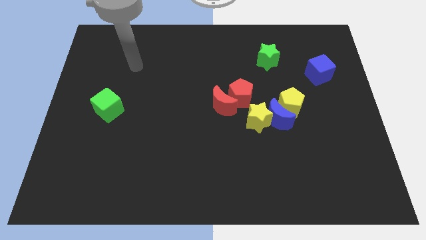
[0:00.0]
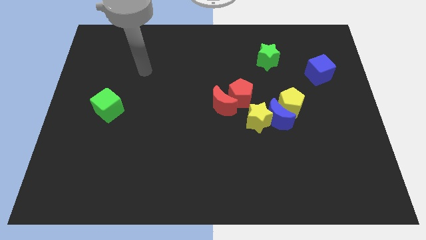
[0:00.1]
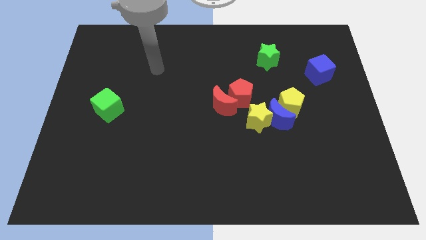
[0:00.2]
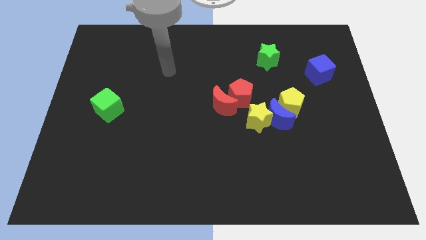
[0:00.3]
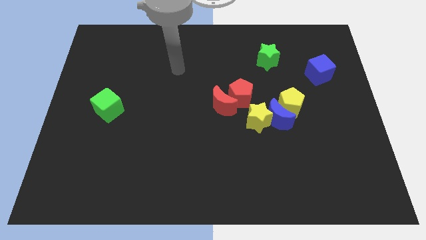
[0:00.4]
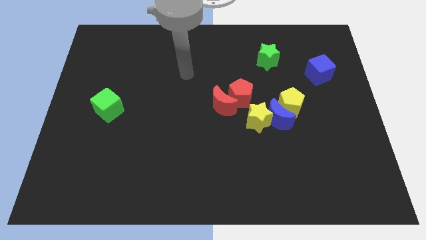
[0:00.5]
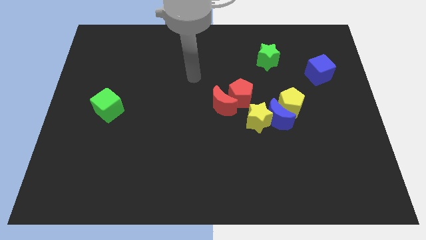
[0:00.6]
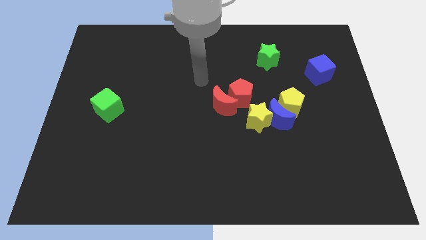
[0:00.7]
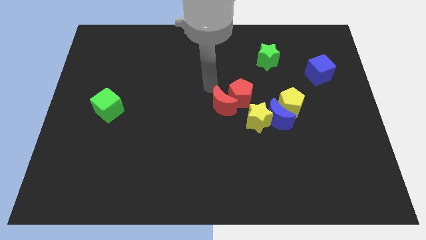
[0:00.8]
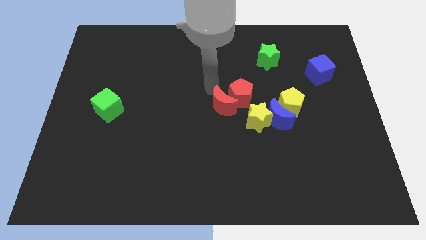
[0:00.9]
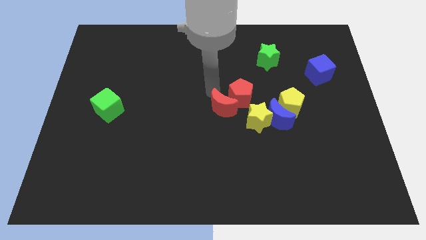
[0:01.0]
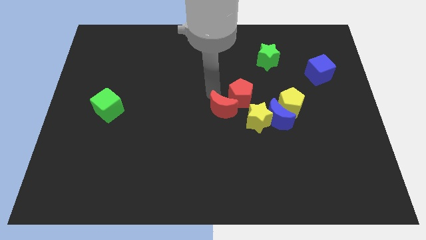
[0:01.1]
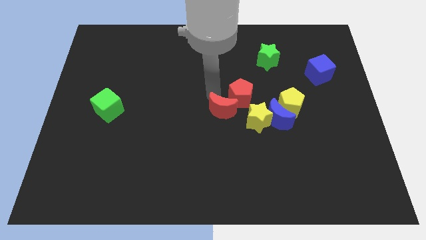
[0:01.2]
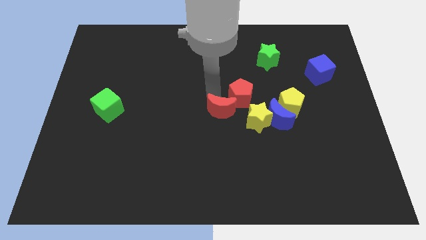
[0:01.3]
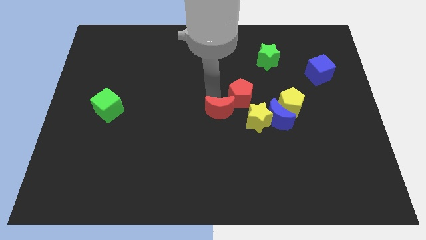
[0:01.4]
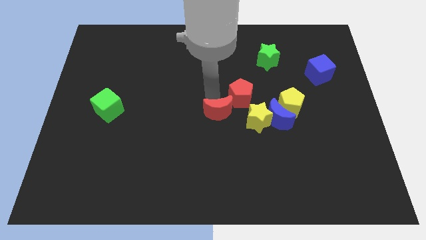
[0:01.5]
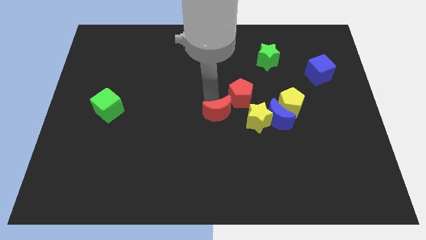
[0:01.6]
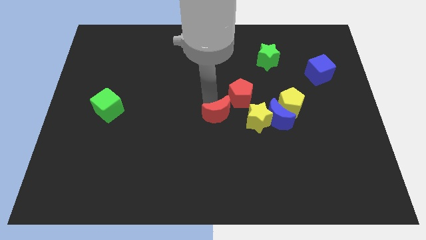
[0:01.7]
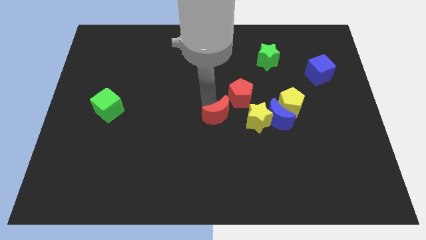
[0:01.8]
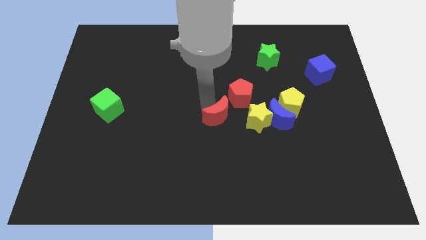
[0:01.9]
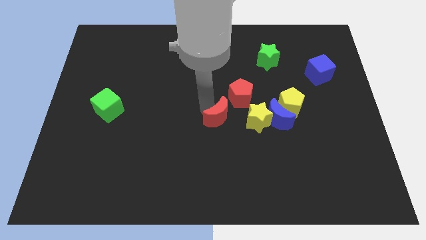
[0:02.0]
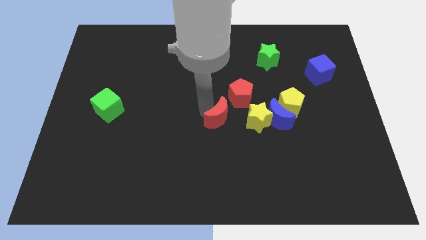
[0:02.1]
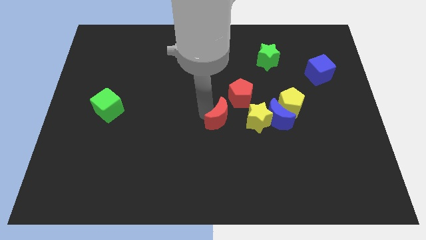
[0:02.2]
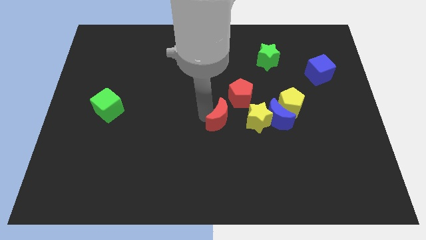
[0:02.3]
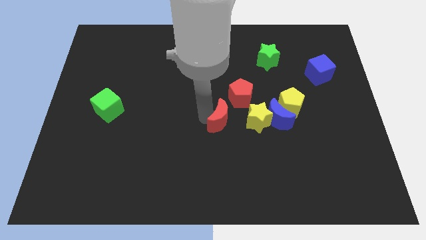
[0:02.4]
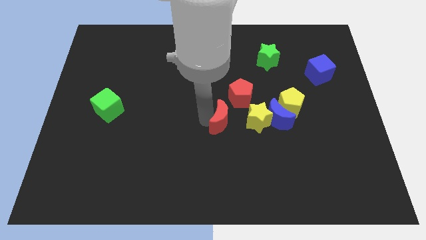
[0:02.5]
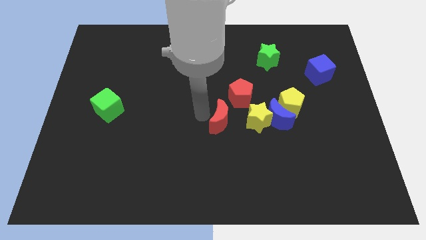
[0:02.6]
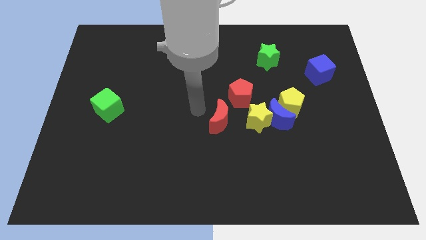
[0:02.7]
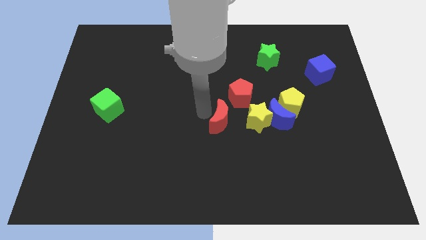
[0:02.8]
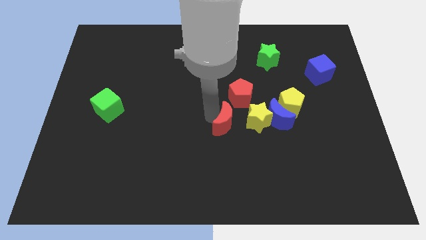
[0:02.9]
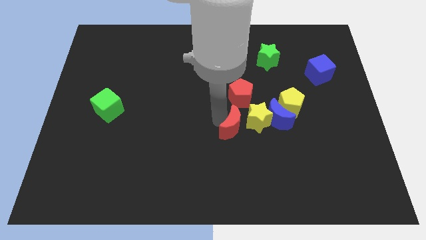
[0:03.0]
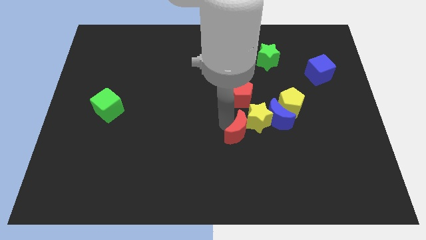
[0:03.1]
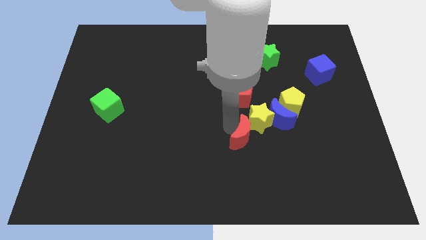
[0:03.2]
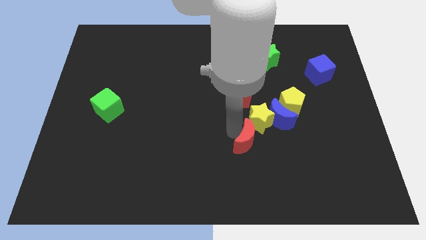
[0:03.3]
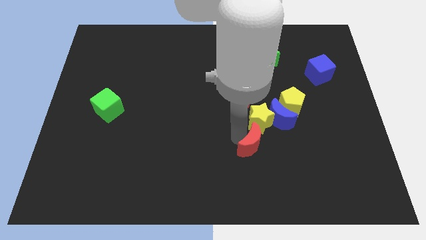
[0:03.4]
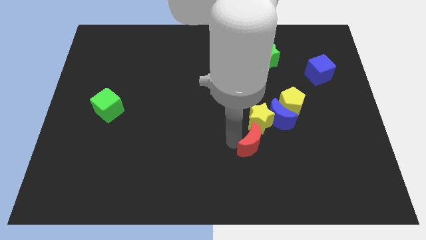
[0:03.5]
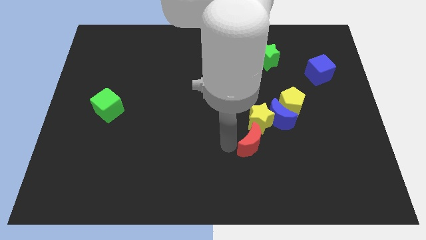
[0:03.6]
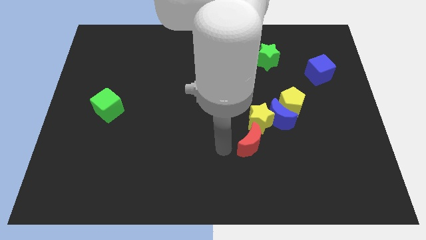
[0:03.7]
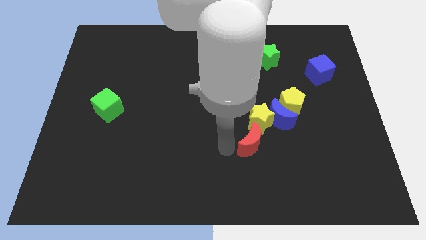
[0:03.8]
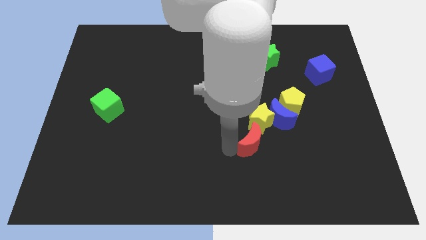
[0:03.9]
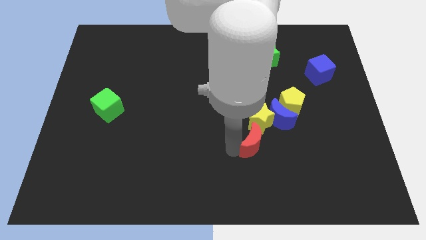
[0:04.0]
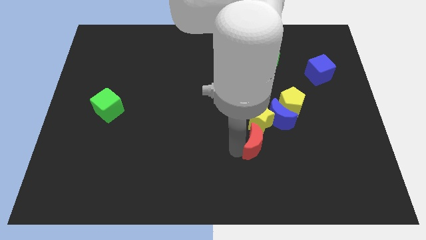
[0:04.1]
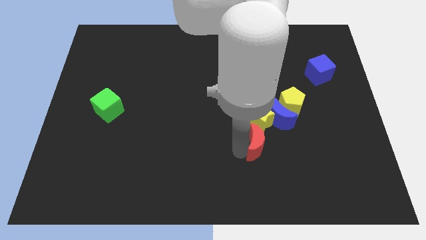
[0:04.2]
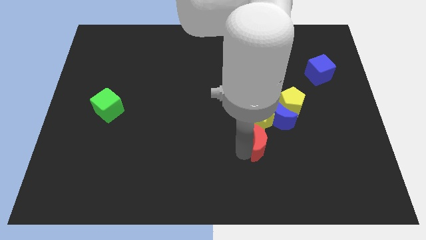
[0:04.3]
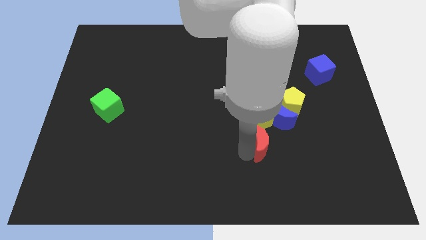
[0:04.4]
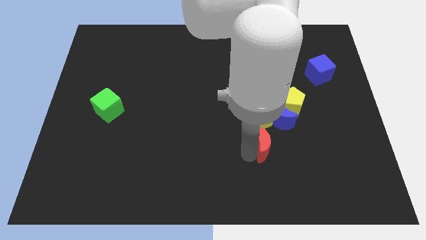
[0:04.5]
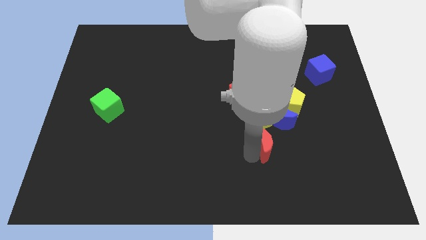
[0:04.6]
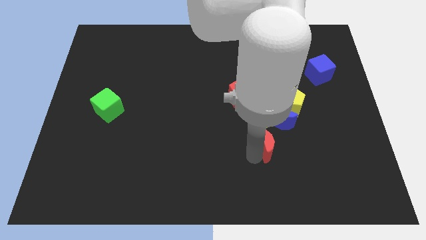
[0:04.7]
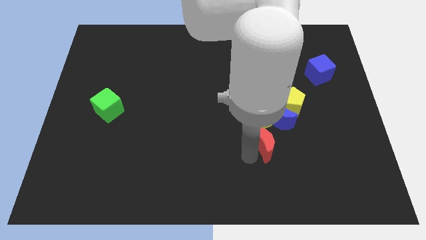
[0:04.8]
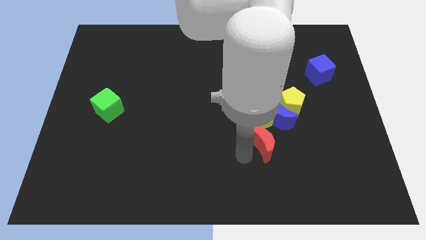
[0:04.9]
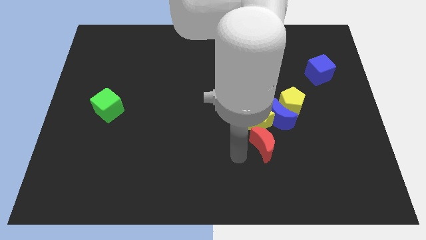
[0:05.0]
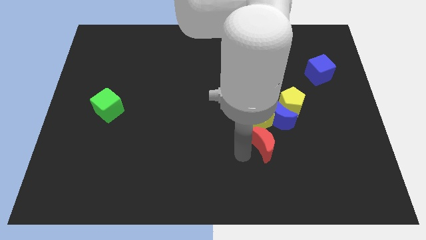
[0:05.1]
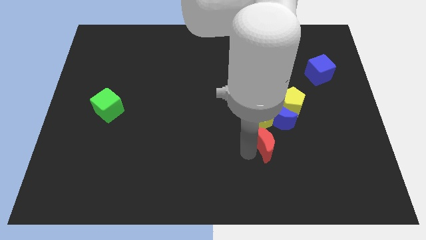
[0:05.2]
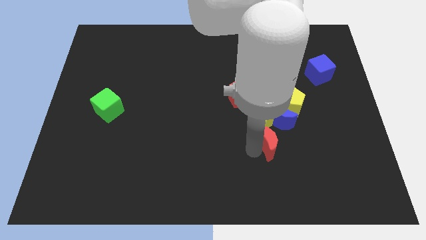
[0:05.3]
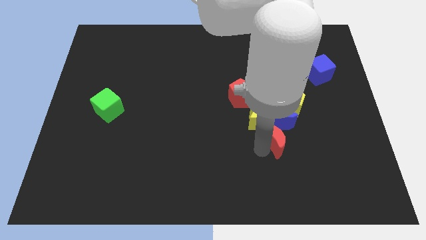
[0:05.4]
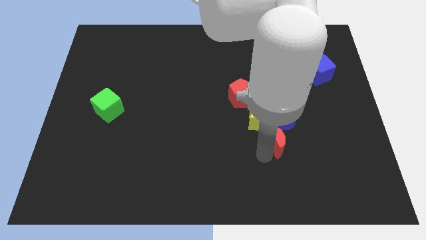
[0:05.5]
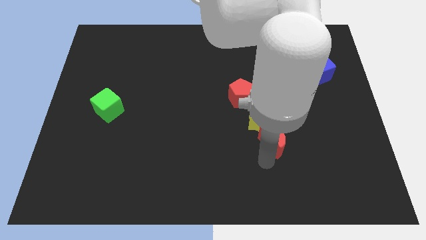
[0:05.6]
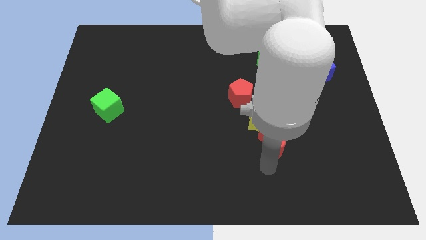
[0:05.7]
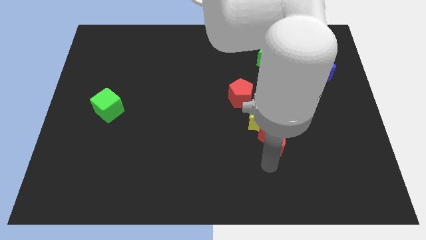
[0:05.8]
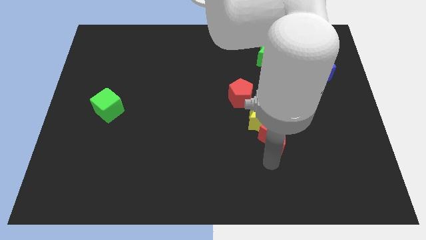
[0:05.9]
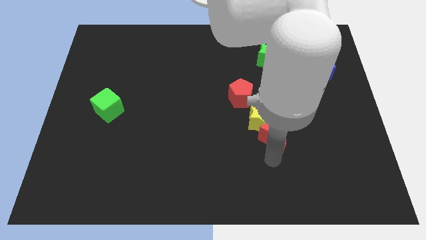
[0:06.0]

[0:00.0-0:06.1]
move the red moon towards the blue moon

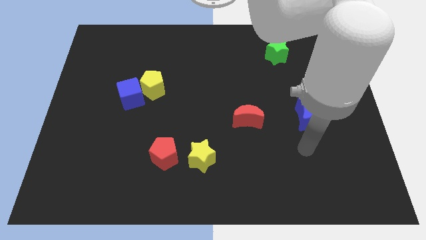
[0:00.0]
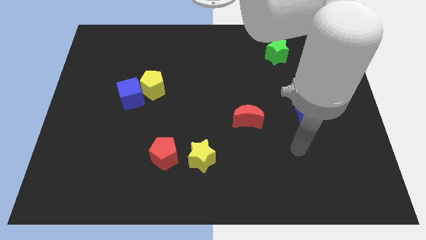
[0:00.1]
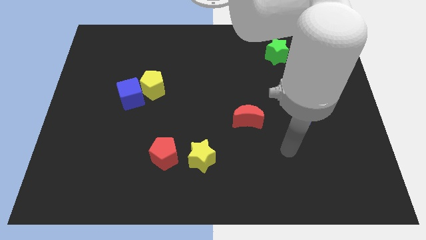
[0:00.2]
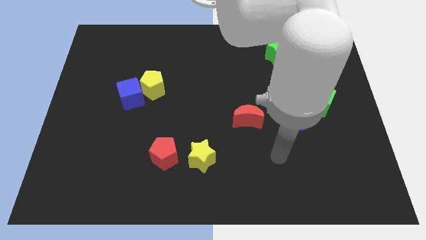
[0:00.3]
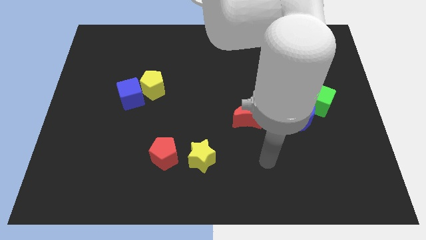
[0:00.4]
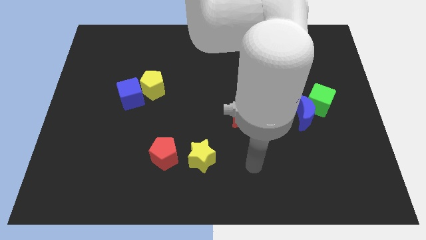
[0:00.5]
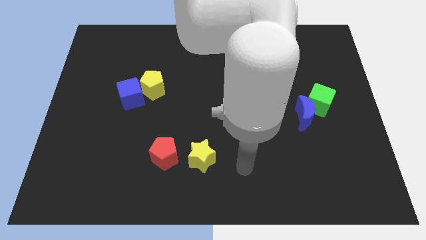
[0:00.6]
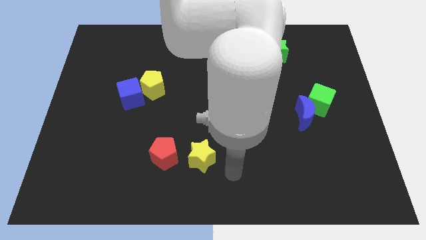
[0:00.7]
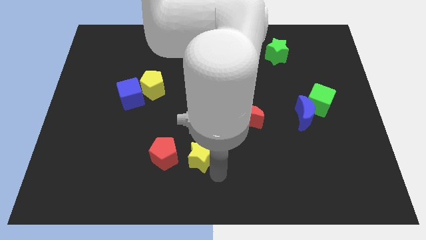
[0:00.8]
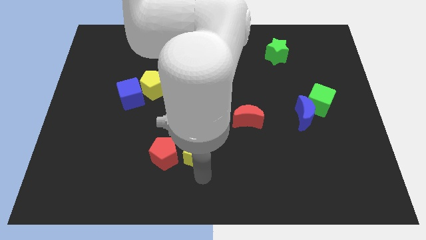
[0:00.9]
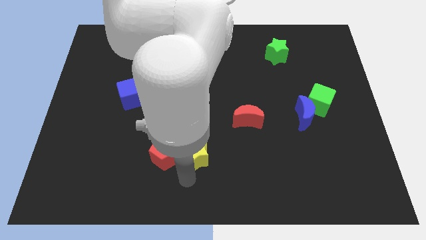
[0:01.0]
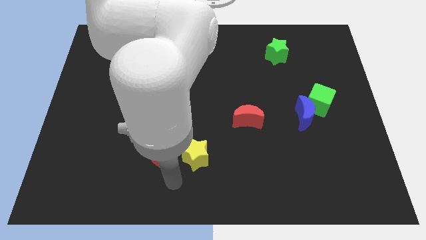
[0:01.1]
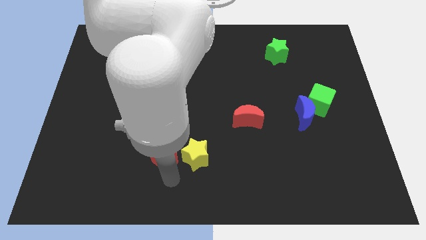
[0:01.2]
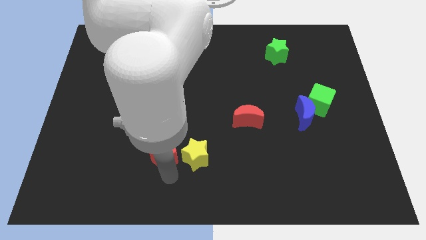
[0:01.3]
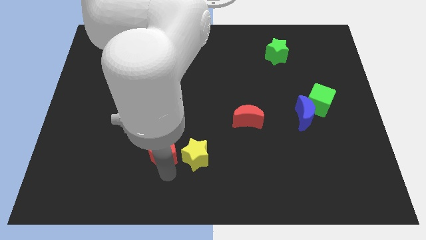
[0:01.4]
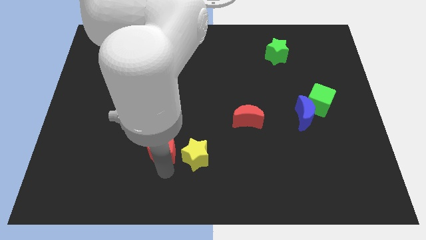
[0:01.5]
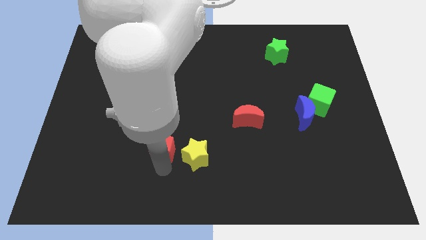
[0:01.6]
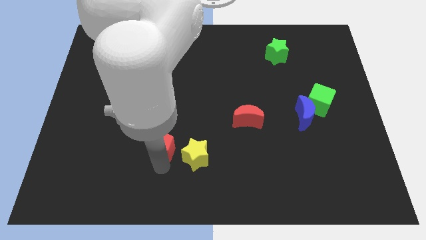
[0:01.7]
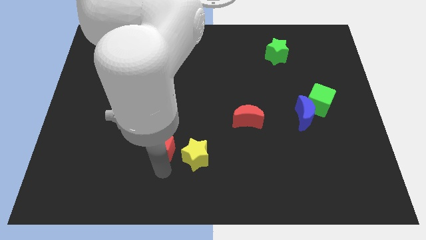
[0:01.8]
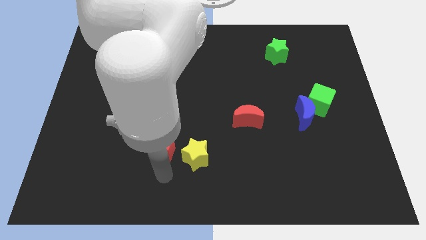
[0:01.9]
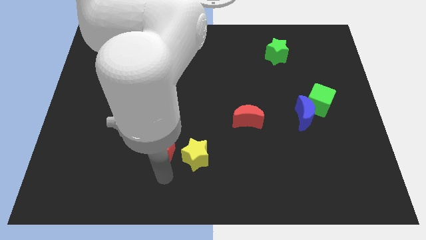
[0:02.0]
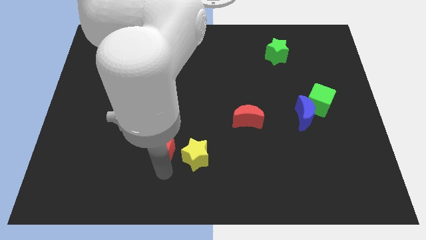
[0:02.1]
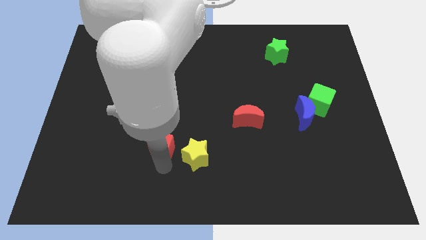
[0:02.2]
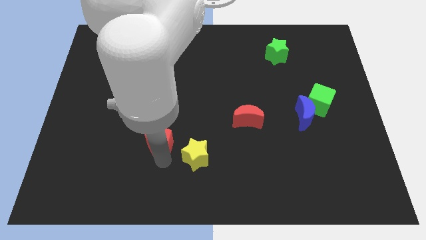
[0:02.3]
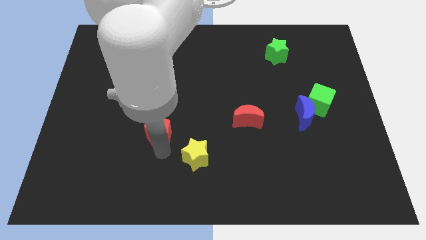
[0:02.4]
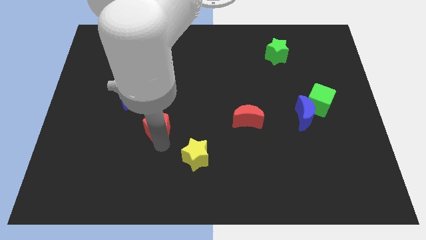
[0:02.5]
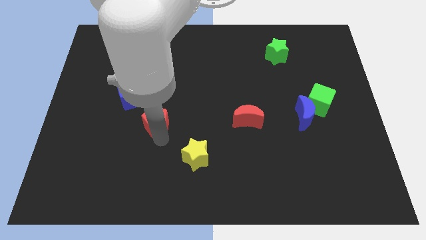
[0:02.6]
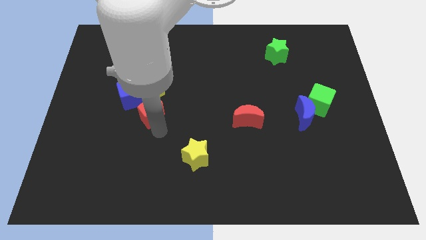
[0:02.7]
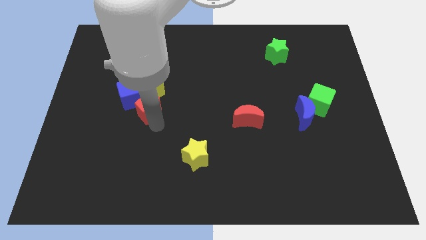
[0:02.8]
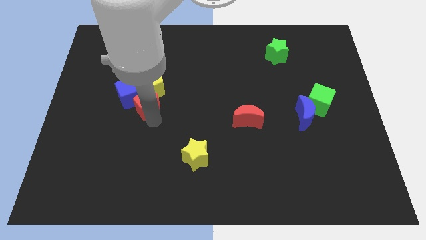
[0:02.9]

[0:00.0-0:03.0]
put the red pentagon next to the yellow pentagon
